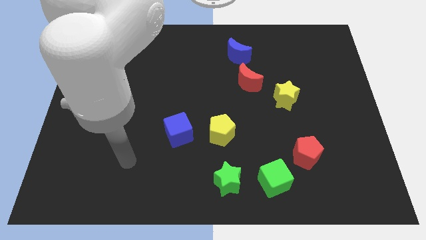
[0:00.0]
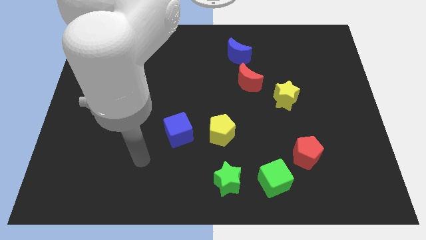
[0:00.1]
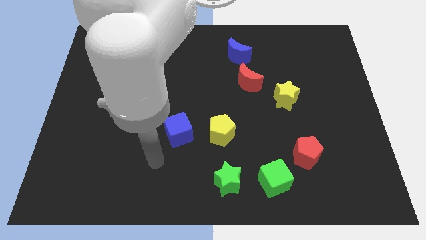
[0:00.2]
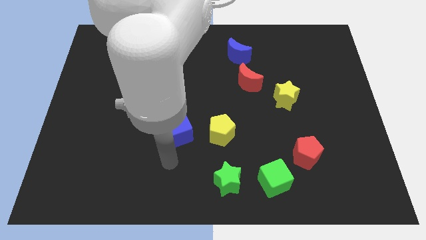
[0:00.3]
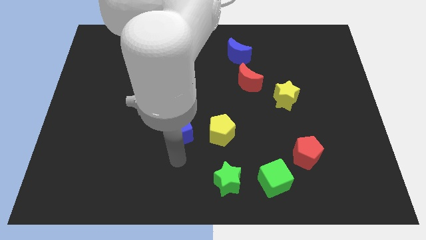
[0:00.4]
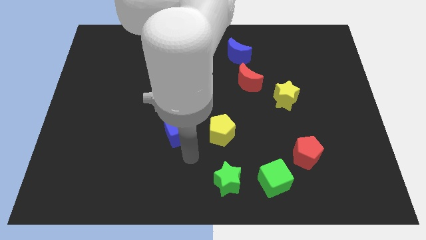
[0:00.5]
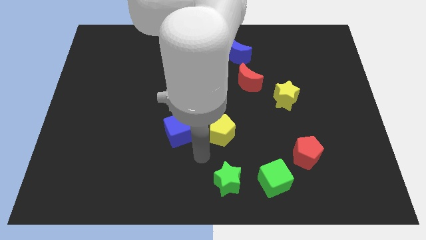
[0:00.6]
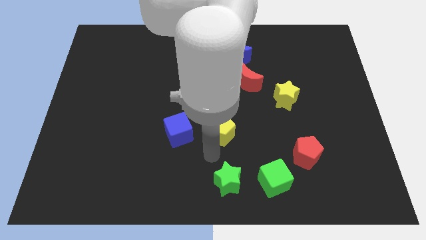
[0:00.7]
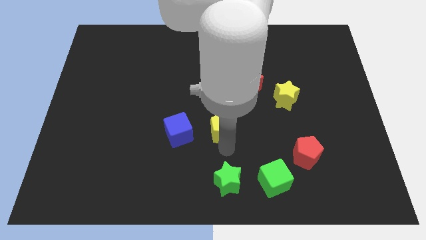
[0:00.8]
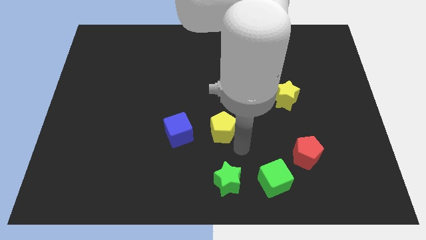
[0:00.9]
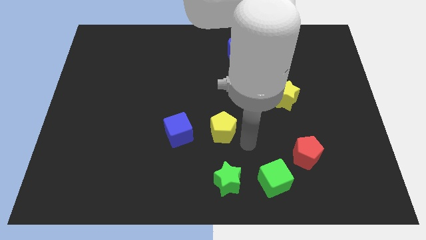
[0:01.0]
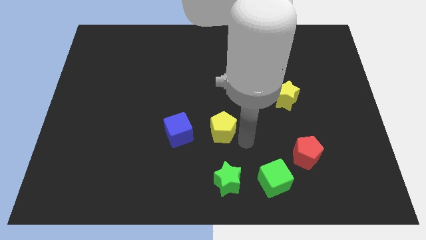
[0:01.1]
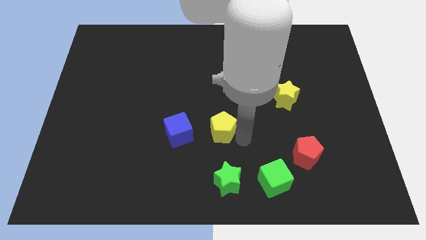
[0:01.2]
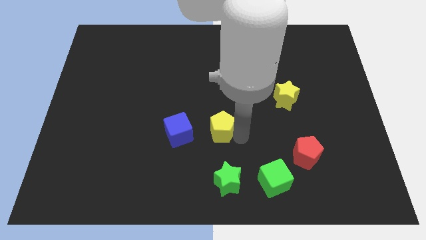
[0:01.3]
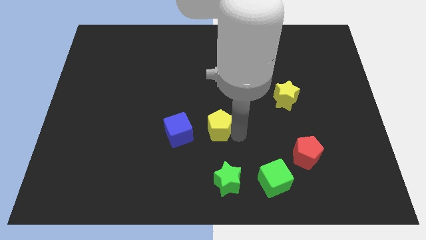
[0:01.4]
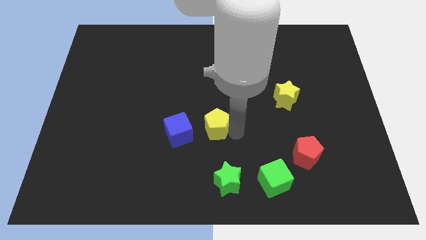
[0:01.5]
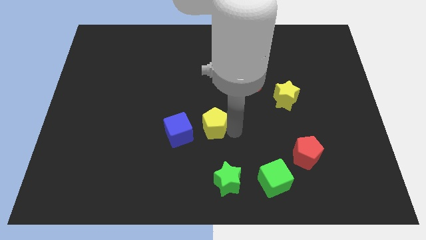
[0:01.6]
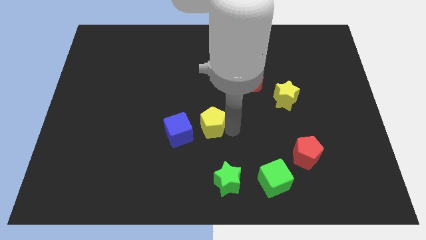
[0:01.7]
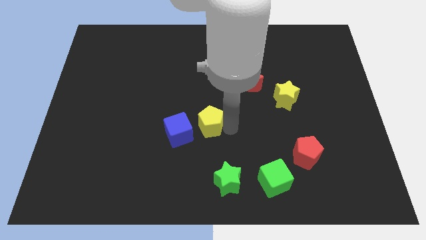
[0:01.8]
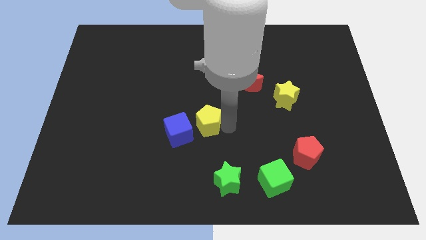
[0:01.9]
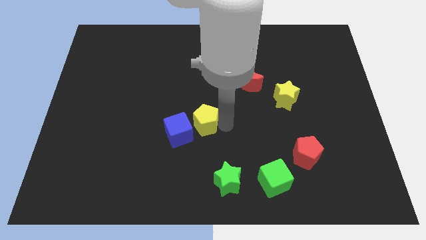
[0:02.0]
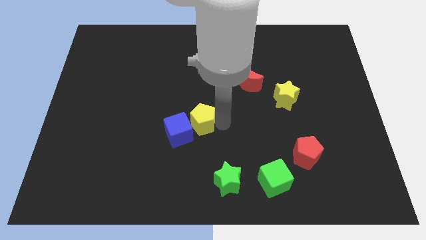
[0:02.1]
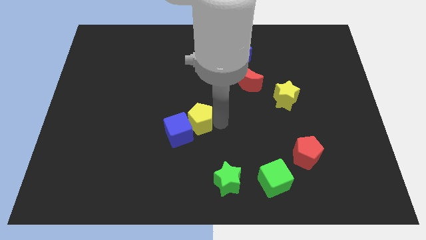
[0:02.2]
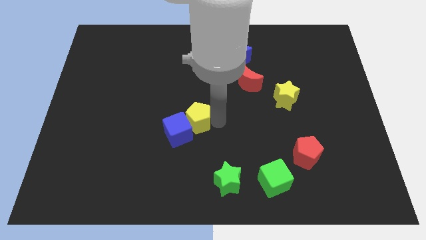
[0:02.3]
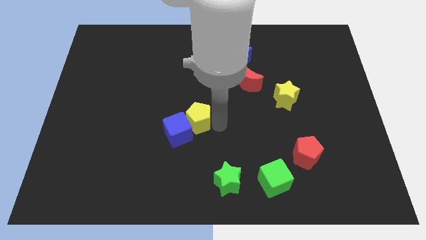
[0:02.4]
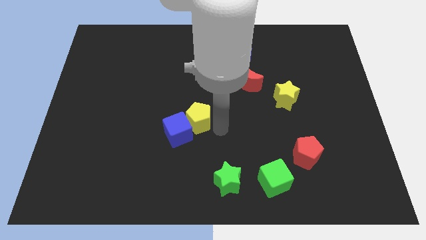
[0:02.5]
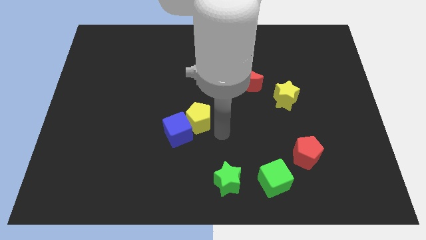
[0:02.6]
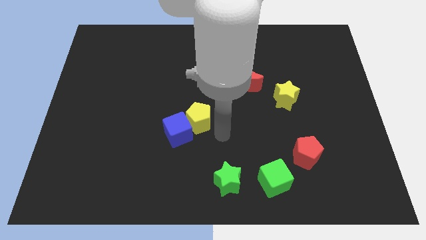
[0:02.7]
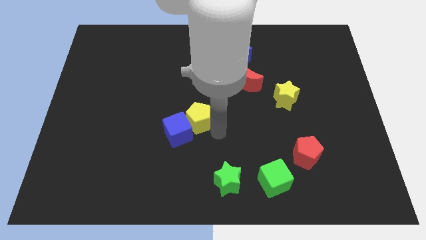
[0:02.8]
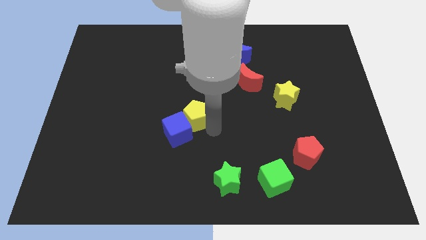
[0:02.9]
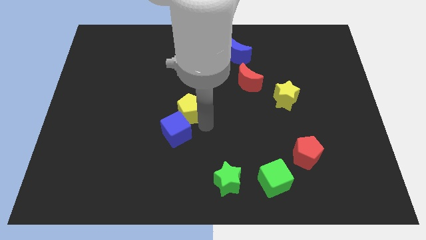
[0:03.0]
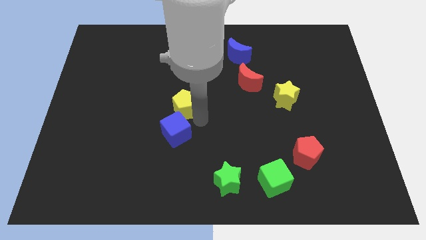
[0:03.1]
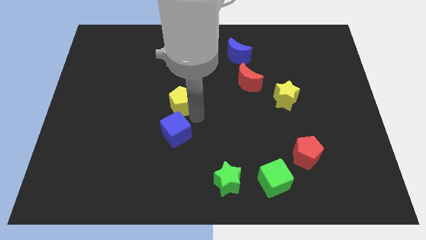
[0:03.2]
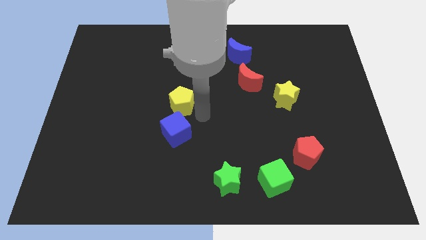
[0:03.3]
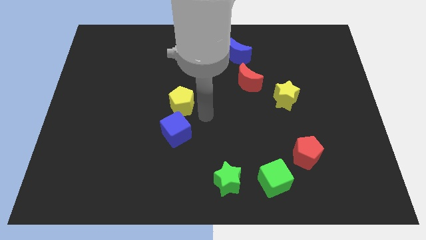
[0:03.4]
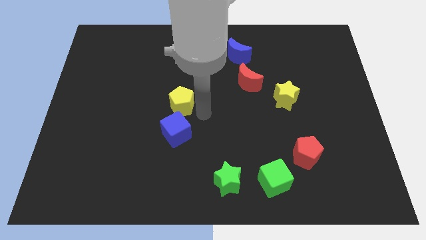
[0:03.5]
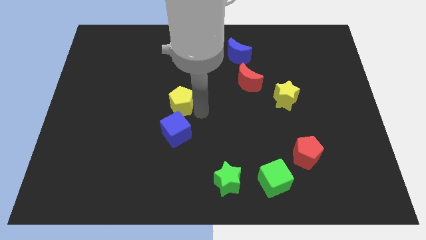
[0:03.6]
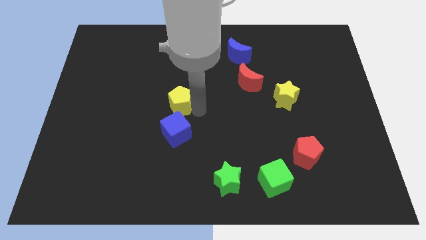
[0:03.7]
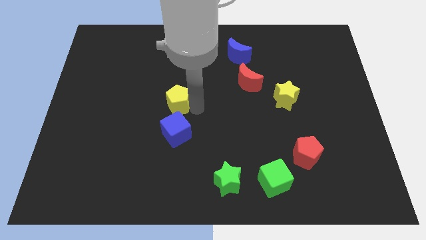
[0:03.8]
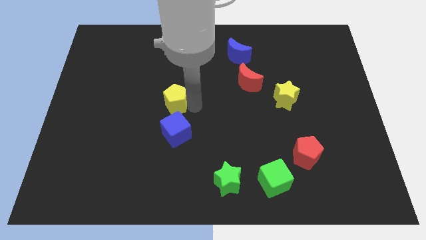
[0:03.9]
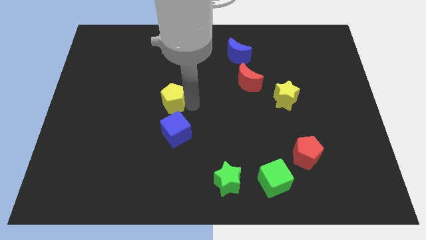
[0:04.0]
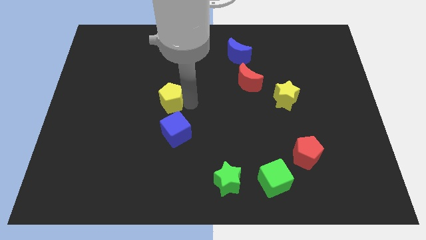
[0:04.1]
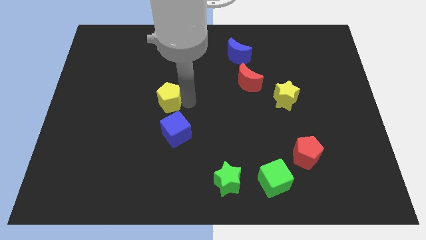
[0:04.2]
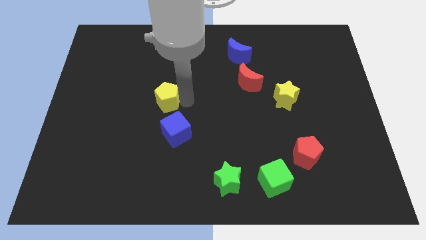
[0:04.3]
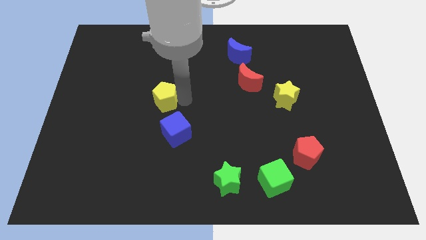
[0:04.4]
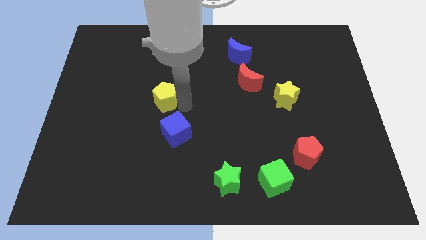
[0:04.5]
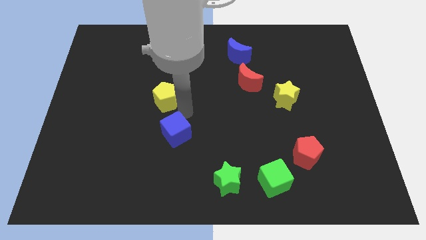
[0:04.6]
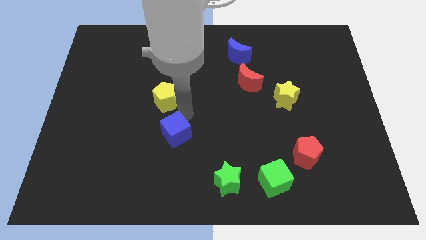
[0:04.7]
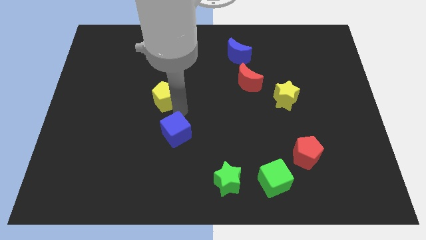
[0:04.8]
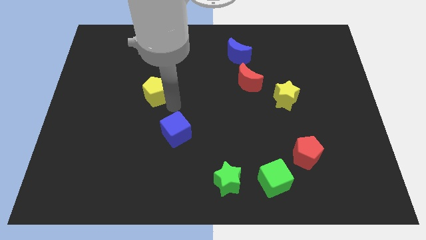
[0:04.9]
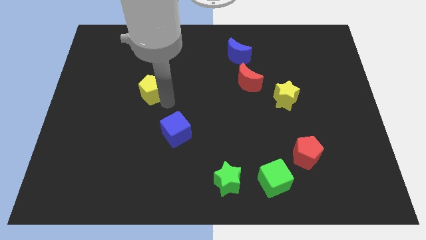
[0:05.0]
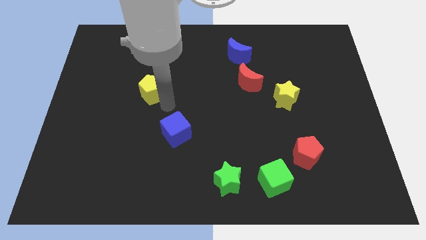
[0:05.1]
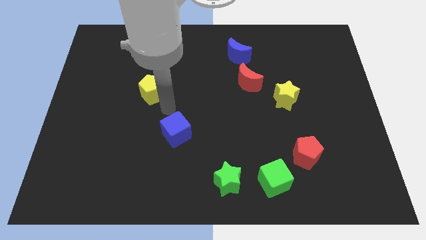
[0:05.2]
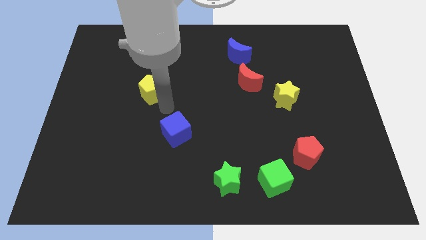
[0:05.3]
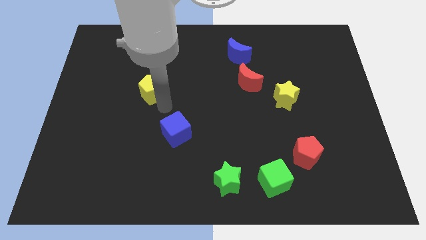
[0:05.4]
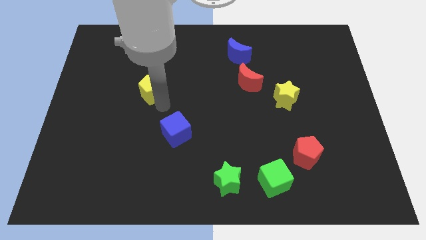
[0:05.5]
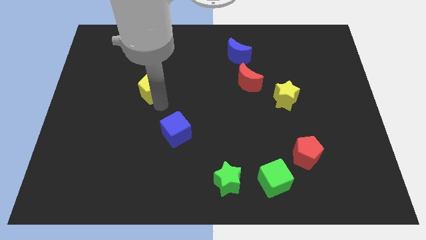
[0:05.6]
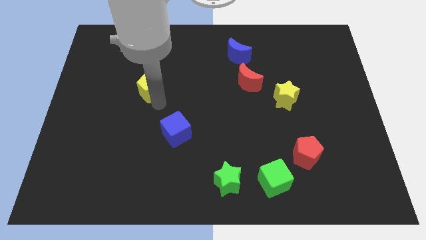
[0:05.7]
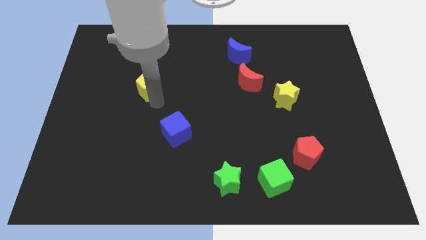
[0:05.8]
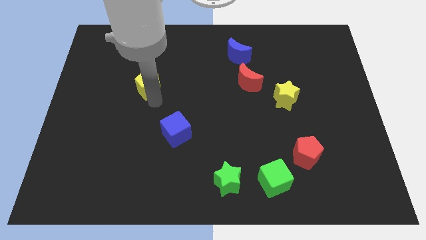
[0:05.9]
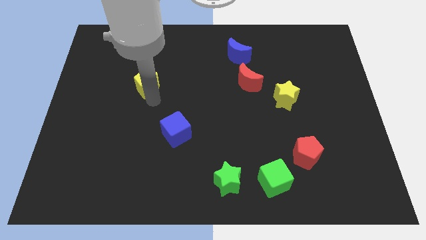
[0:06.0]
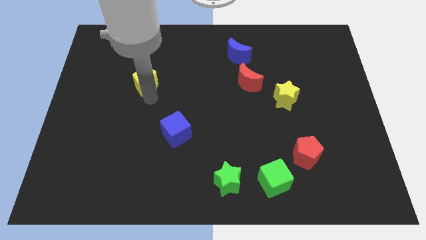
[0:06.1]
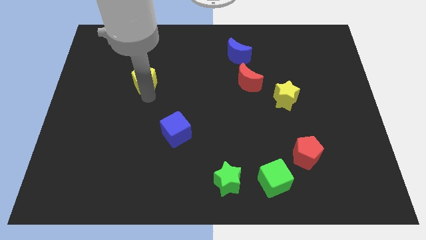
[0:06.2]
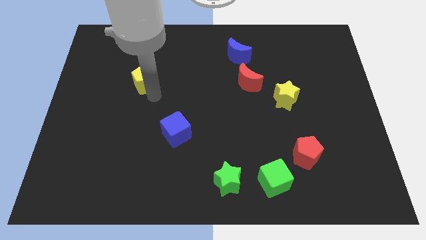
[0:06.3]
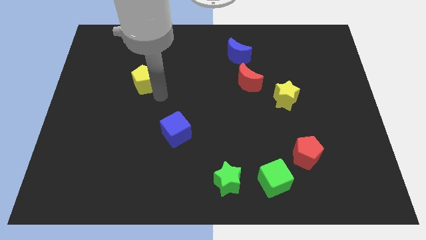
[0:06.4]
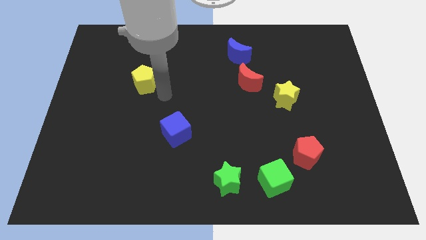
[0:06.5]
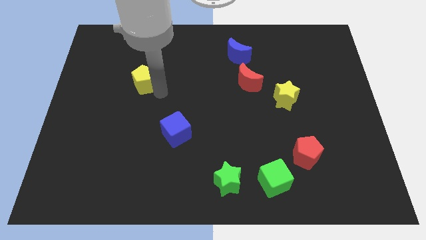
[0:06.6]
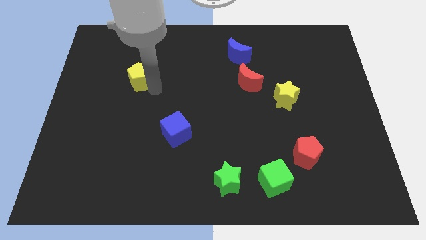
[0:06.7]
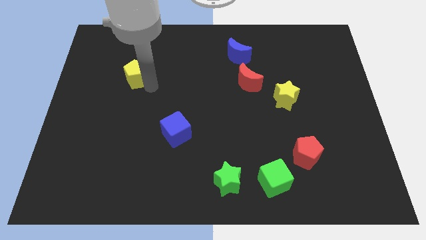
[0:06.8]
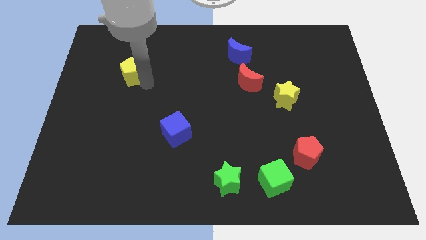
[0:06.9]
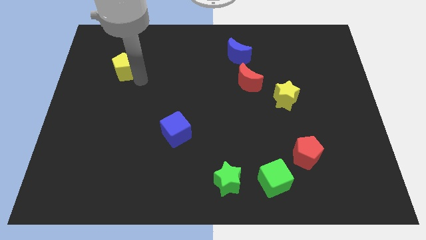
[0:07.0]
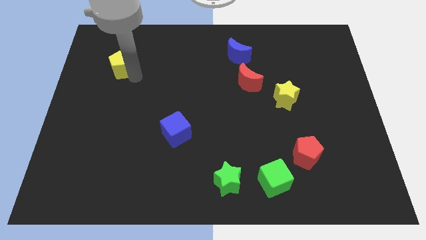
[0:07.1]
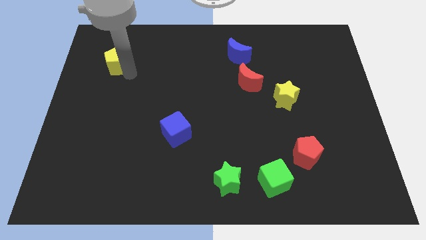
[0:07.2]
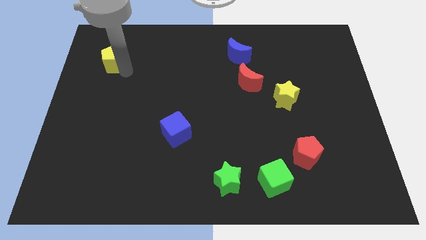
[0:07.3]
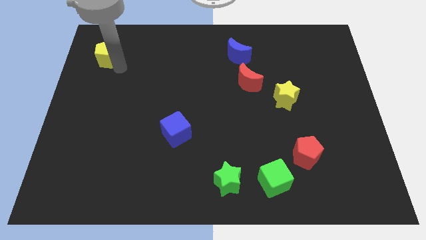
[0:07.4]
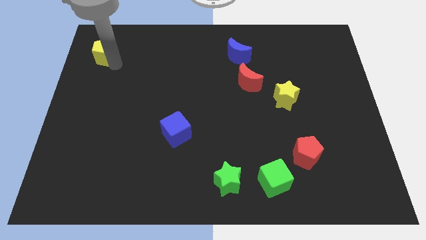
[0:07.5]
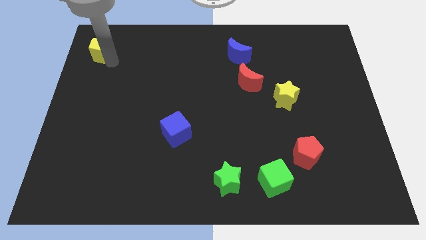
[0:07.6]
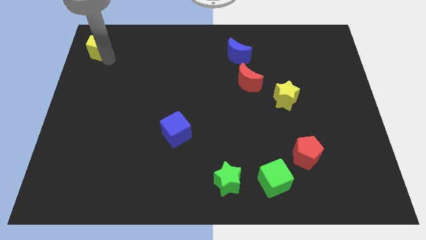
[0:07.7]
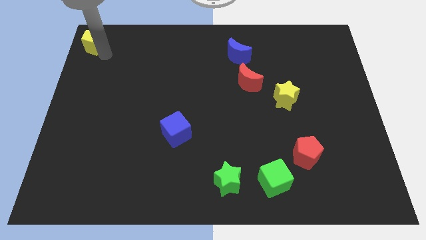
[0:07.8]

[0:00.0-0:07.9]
slide the yellow pentagon to the top left corner
